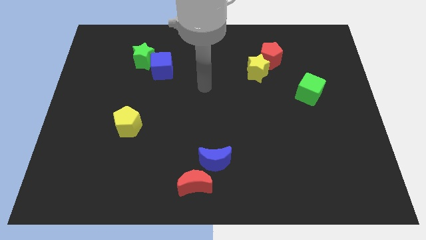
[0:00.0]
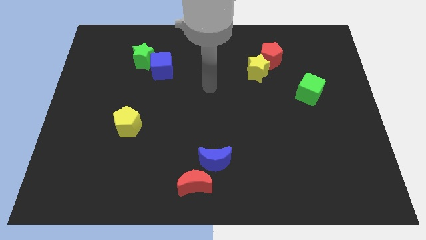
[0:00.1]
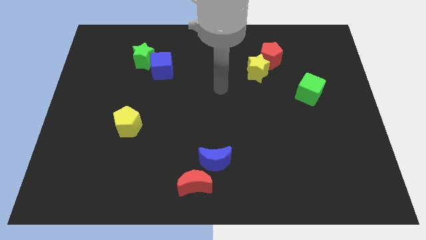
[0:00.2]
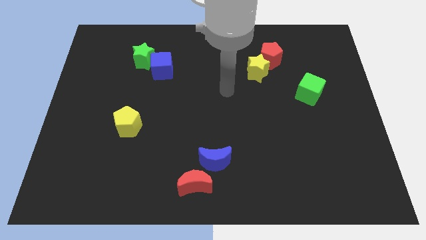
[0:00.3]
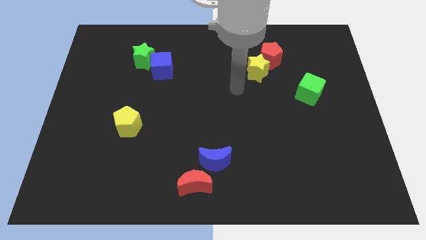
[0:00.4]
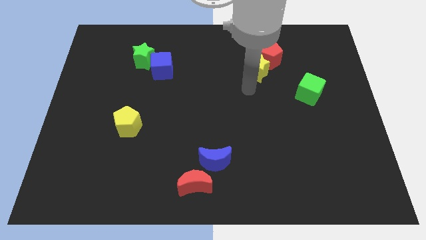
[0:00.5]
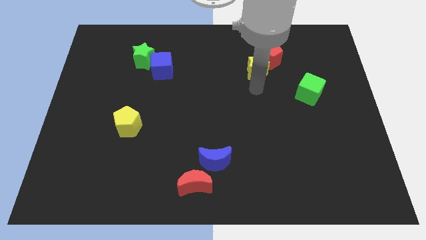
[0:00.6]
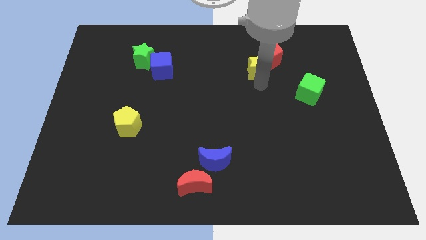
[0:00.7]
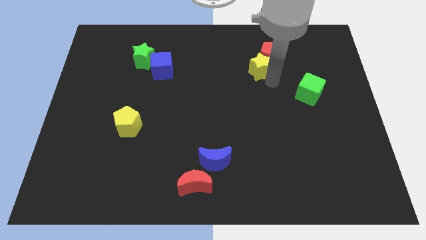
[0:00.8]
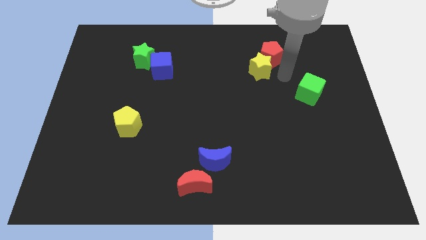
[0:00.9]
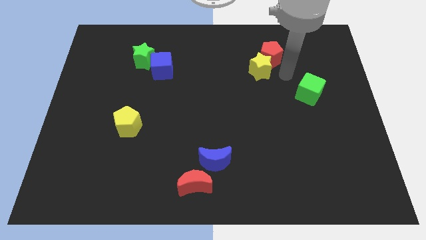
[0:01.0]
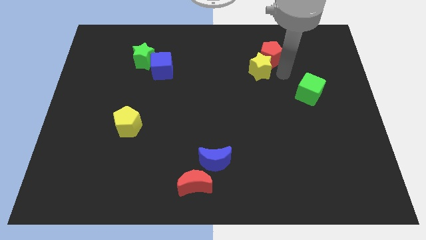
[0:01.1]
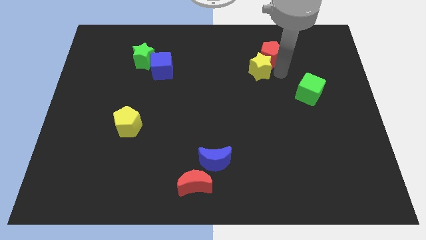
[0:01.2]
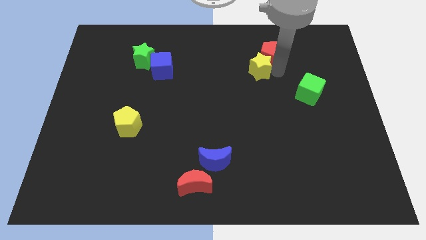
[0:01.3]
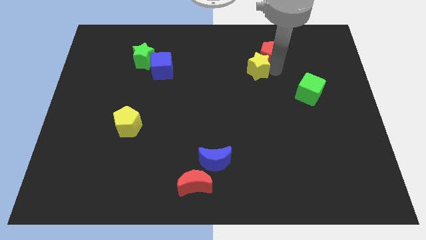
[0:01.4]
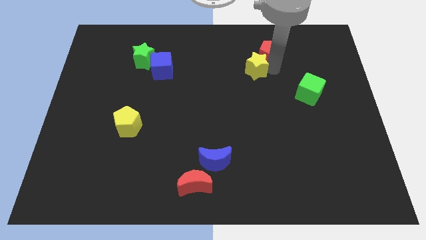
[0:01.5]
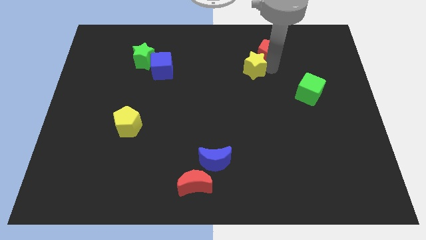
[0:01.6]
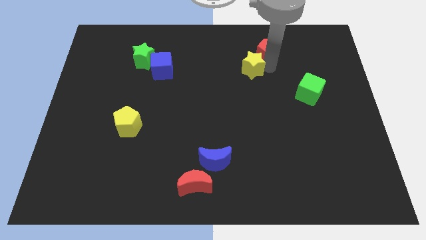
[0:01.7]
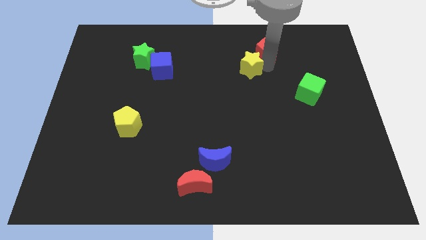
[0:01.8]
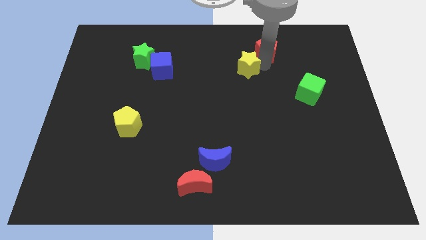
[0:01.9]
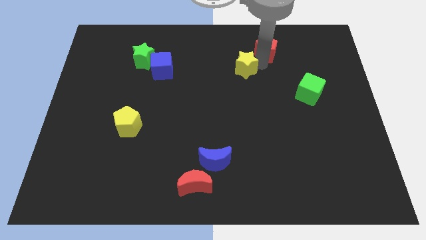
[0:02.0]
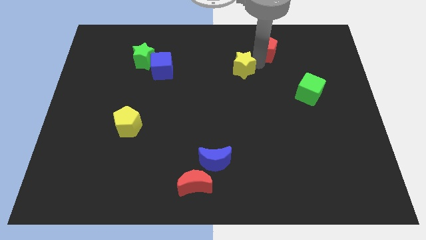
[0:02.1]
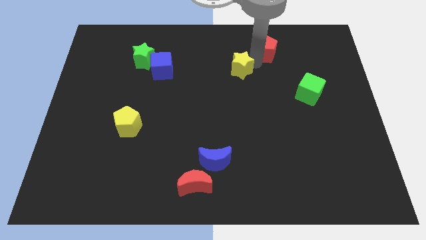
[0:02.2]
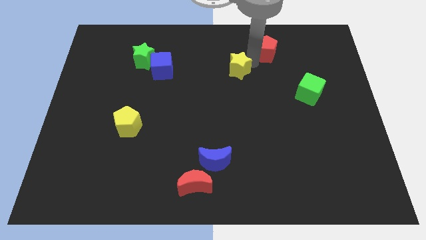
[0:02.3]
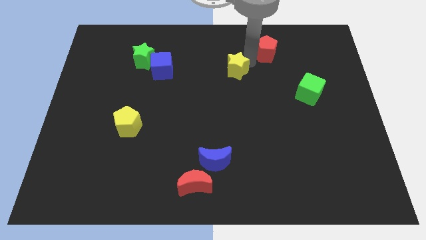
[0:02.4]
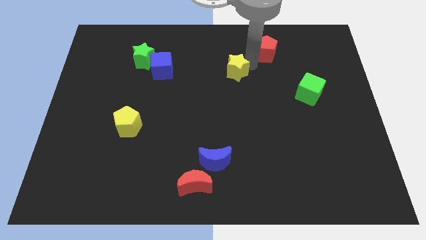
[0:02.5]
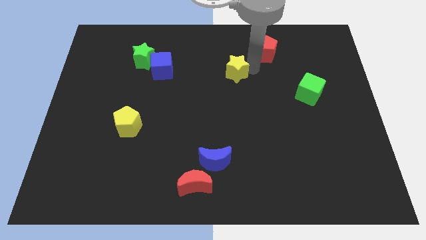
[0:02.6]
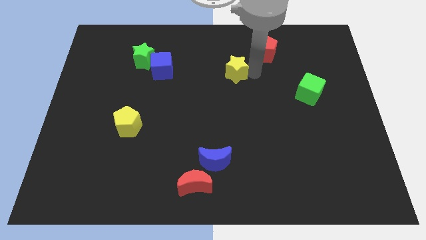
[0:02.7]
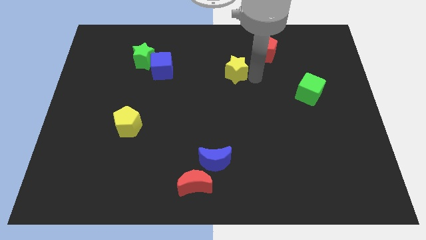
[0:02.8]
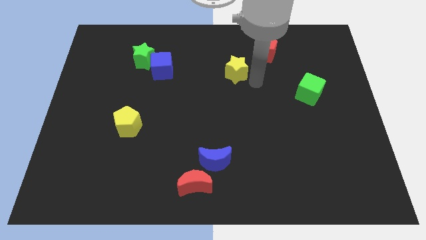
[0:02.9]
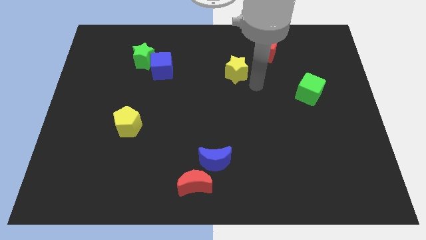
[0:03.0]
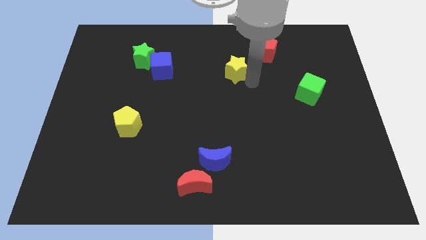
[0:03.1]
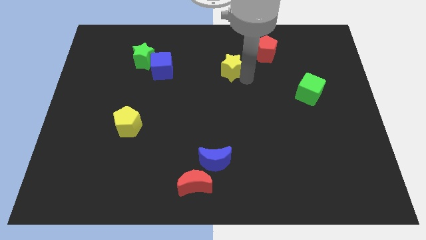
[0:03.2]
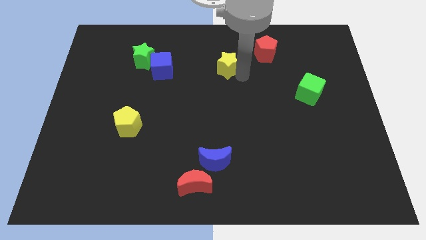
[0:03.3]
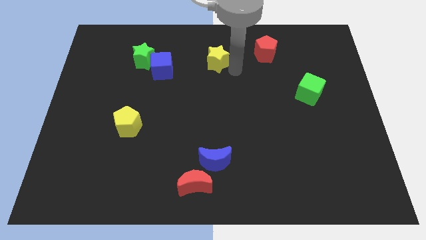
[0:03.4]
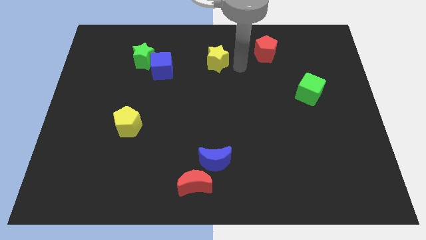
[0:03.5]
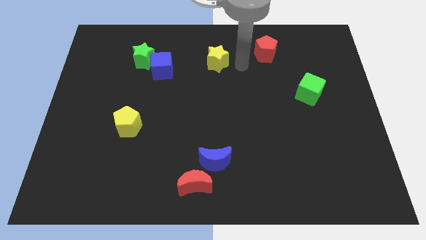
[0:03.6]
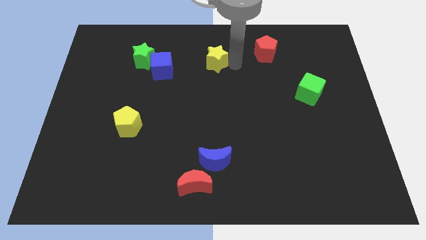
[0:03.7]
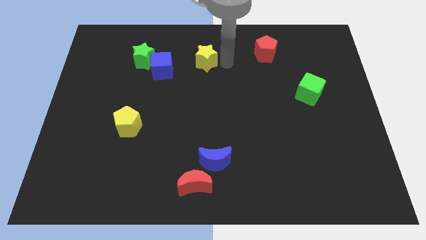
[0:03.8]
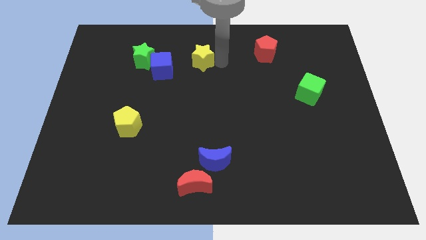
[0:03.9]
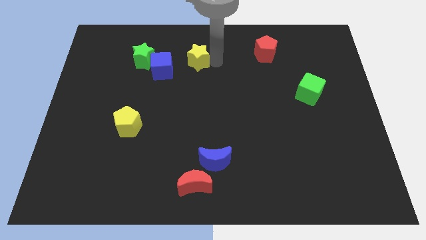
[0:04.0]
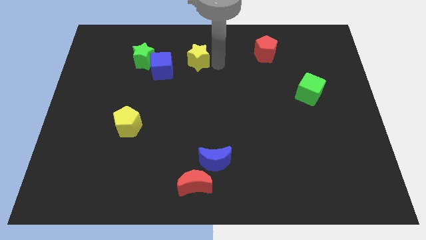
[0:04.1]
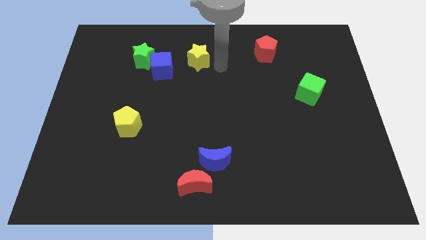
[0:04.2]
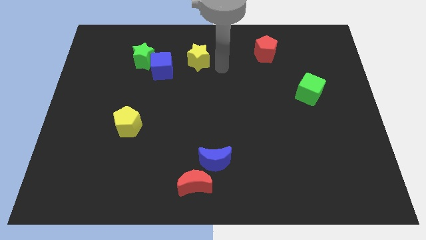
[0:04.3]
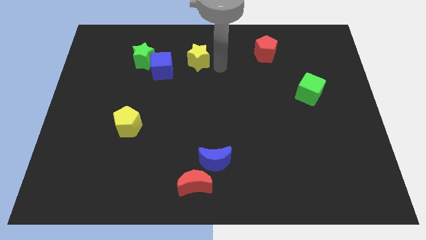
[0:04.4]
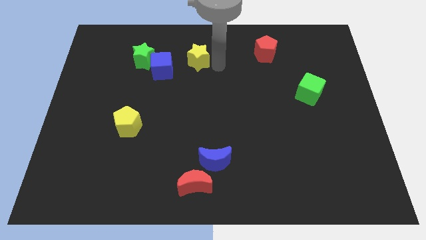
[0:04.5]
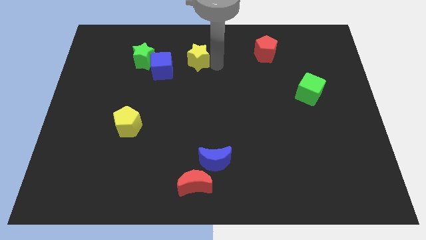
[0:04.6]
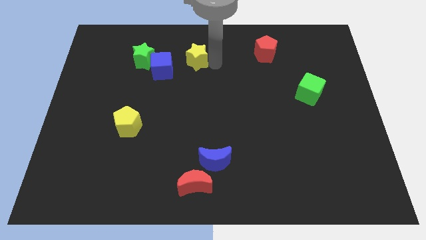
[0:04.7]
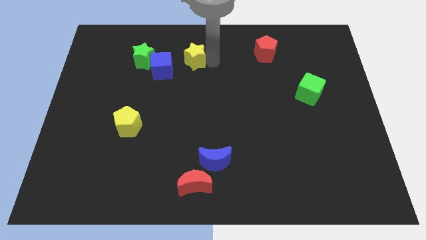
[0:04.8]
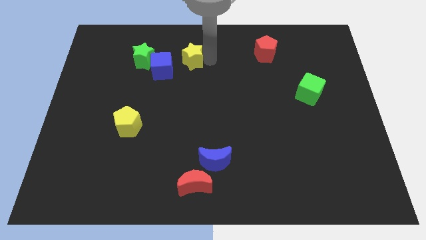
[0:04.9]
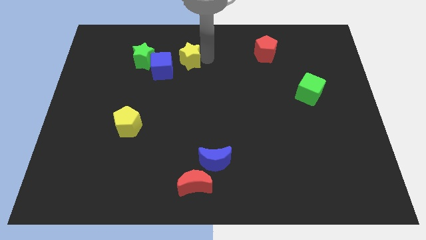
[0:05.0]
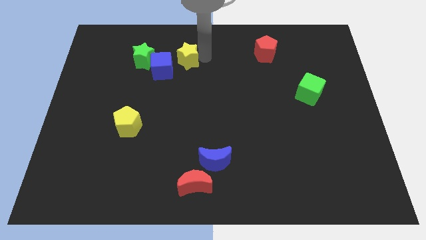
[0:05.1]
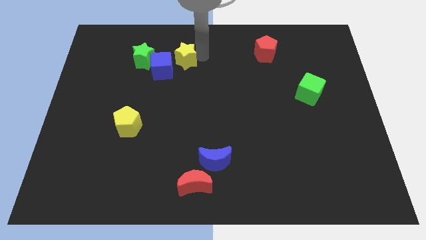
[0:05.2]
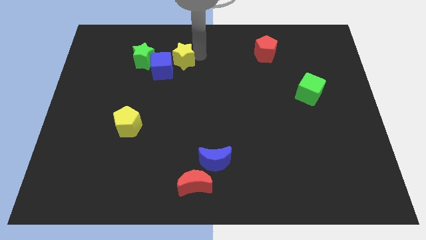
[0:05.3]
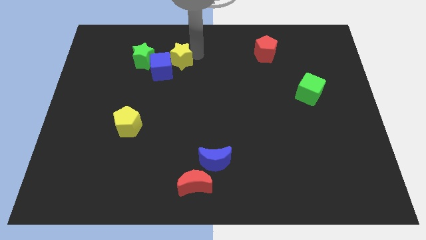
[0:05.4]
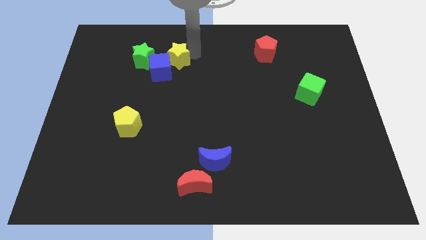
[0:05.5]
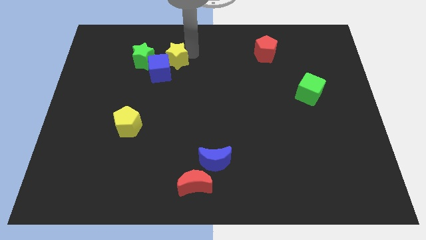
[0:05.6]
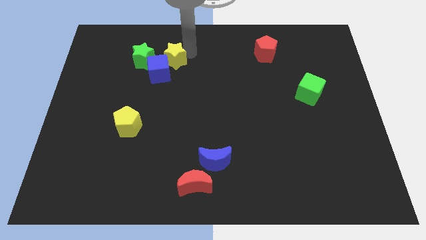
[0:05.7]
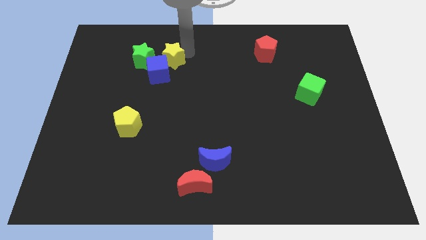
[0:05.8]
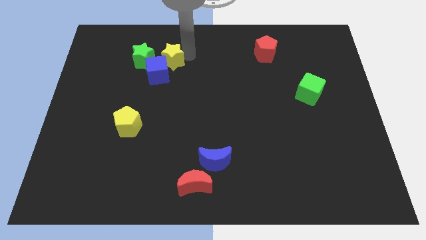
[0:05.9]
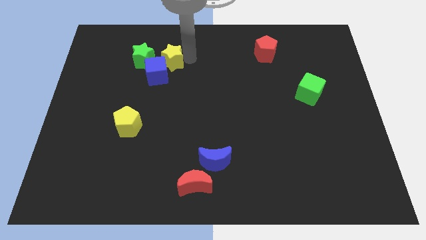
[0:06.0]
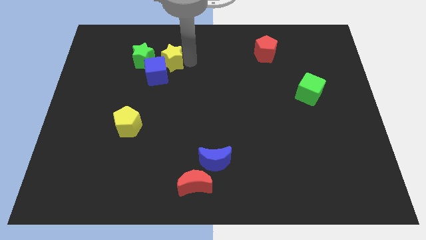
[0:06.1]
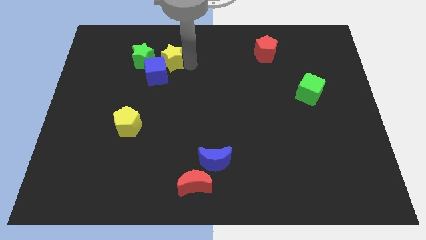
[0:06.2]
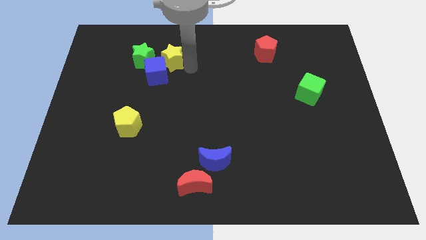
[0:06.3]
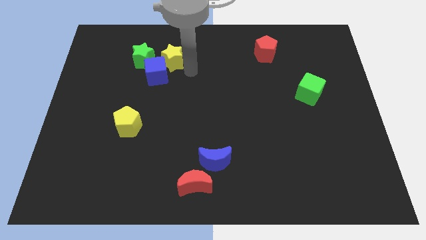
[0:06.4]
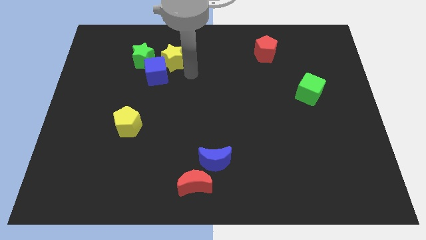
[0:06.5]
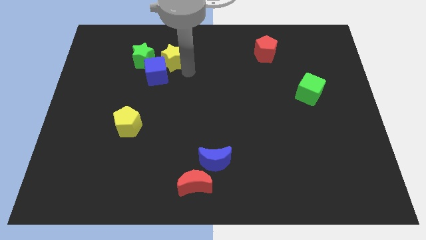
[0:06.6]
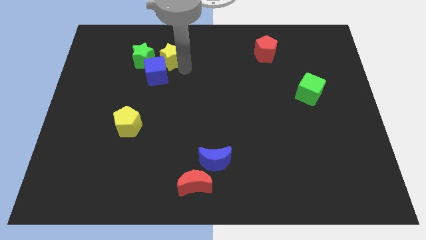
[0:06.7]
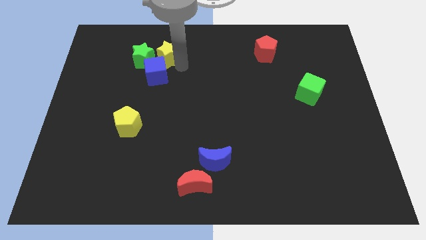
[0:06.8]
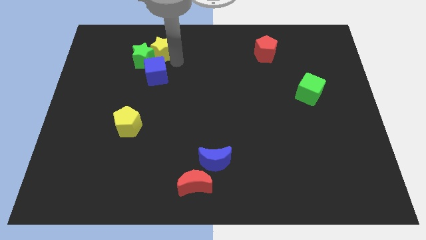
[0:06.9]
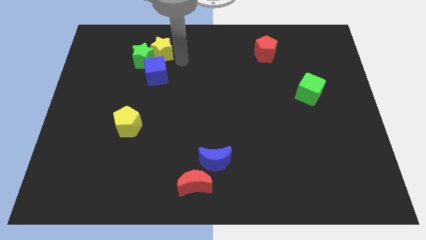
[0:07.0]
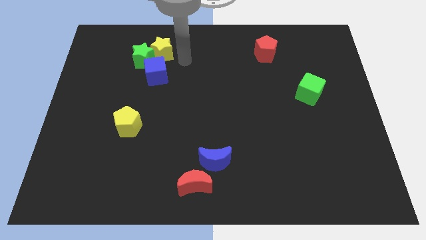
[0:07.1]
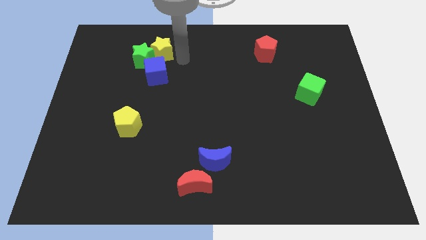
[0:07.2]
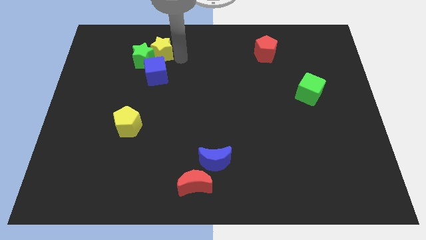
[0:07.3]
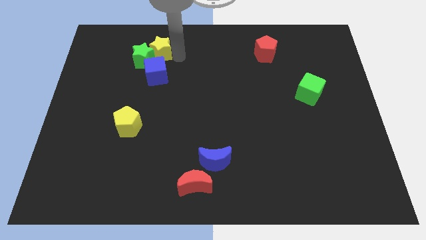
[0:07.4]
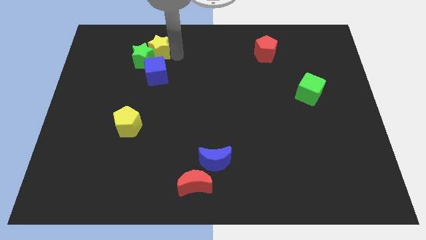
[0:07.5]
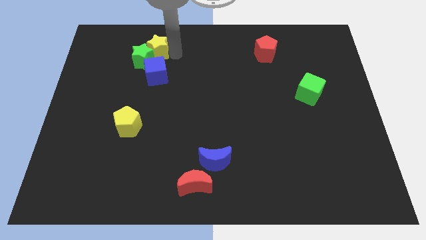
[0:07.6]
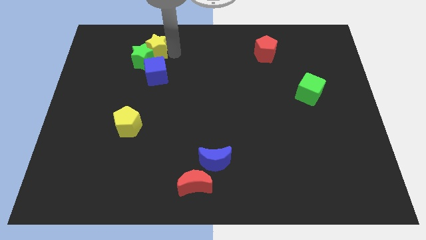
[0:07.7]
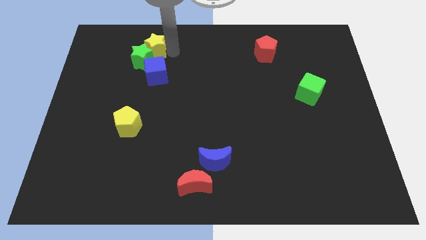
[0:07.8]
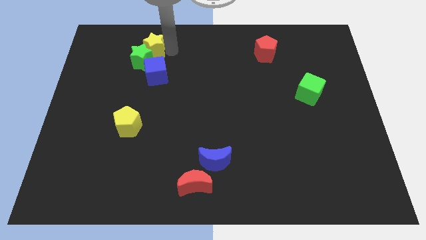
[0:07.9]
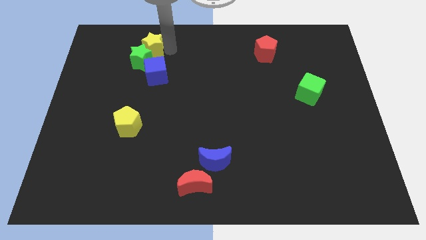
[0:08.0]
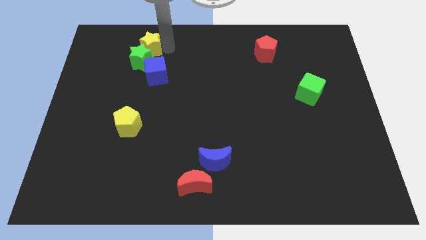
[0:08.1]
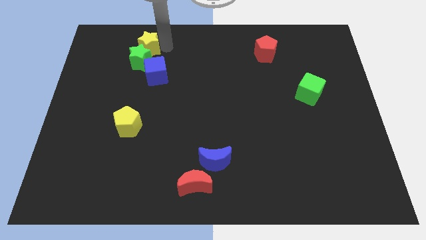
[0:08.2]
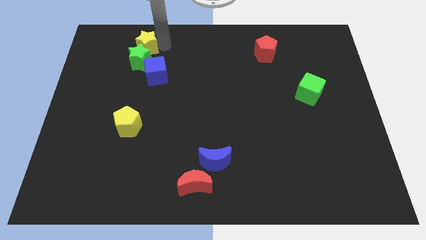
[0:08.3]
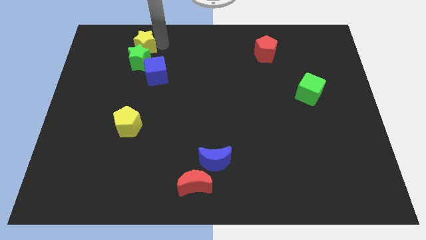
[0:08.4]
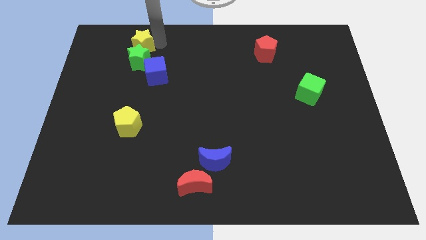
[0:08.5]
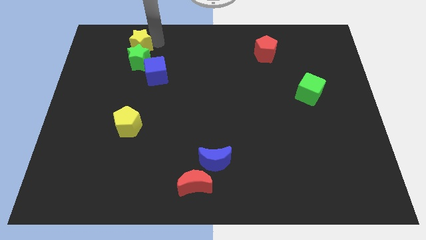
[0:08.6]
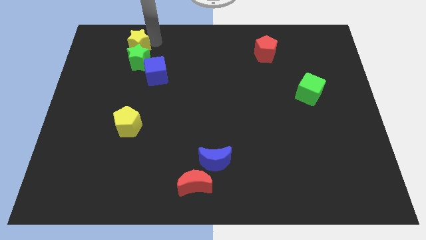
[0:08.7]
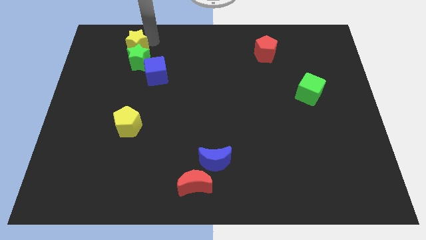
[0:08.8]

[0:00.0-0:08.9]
move the yellow star to the top left side of the blue cube
